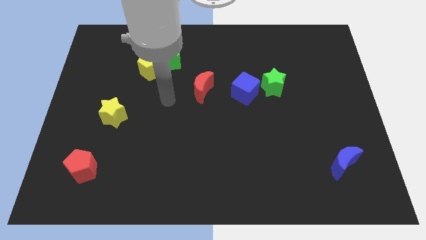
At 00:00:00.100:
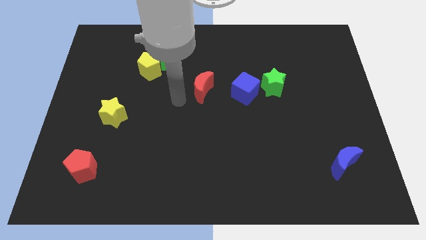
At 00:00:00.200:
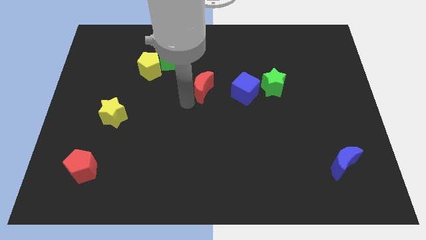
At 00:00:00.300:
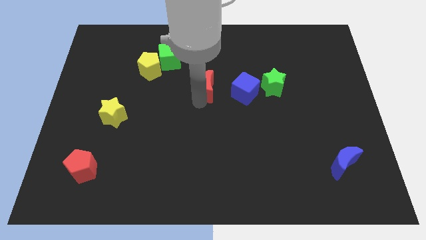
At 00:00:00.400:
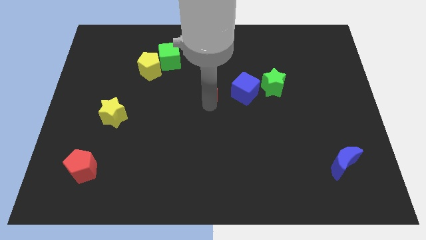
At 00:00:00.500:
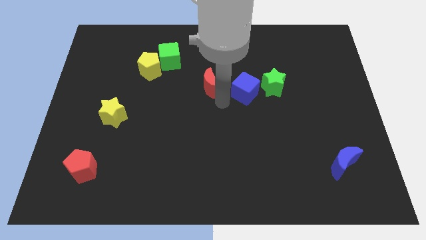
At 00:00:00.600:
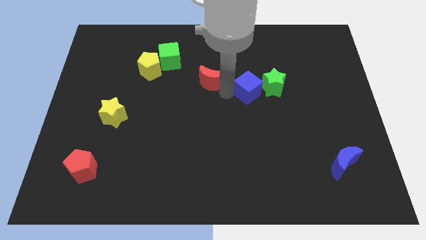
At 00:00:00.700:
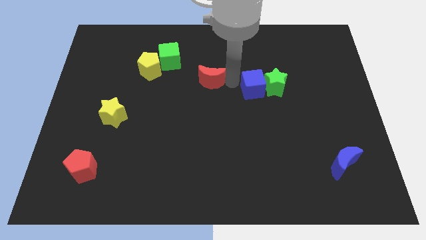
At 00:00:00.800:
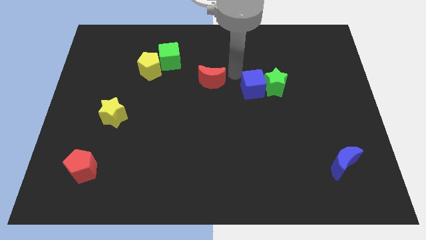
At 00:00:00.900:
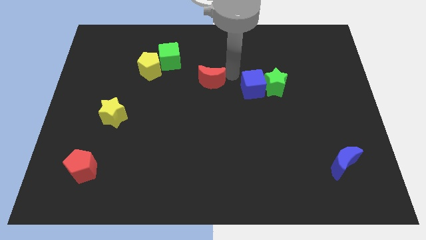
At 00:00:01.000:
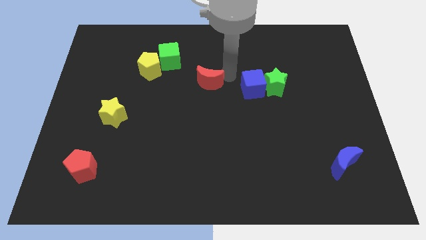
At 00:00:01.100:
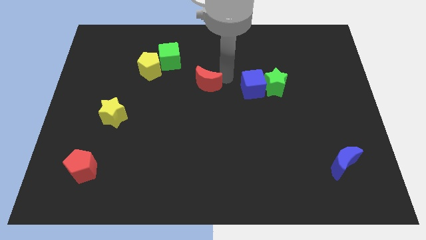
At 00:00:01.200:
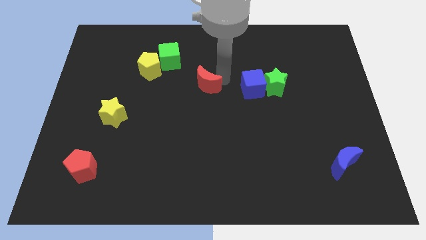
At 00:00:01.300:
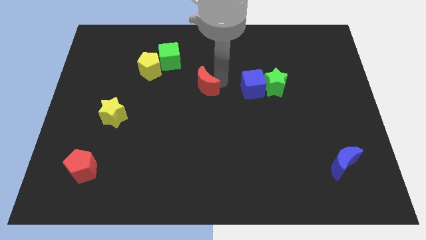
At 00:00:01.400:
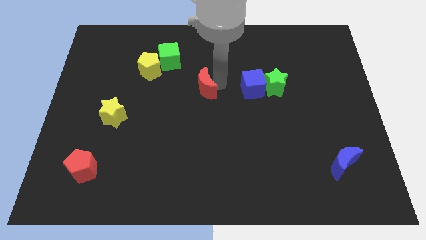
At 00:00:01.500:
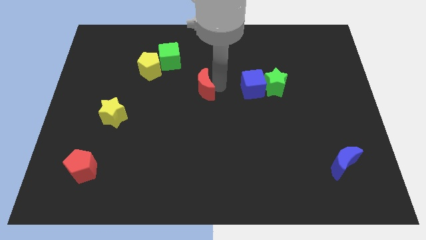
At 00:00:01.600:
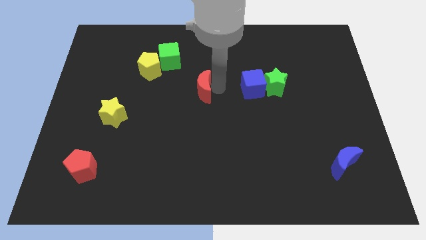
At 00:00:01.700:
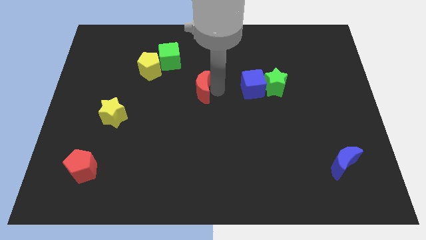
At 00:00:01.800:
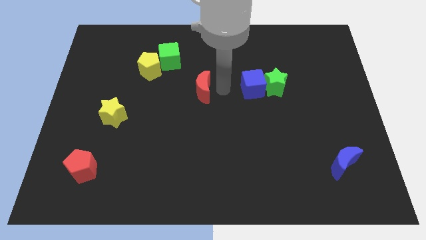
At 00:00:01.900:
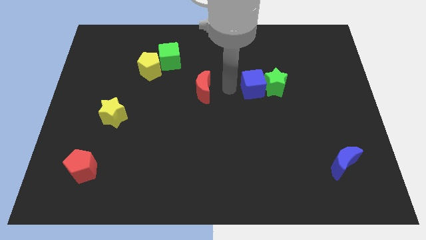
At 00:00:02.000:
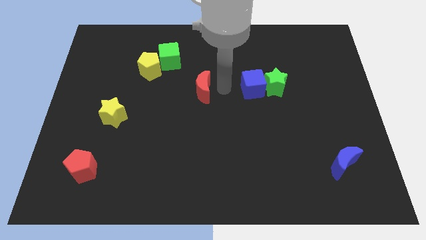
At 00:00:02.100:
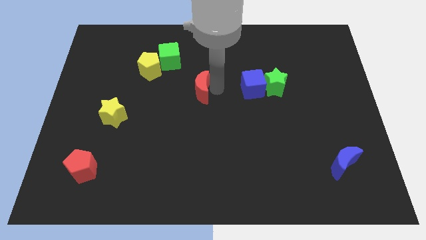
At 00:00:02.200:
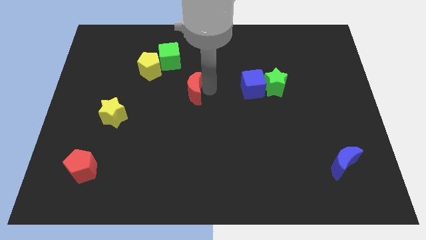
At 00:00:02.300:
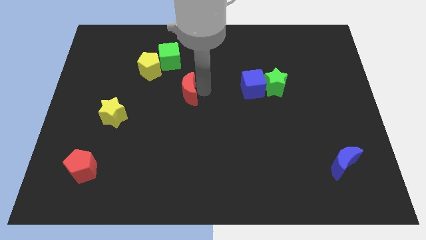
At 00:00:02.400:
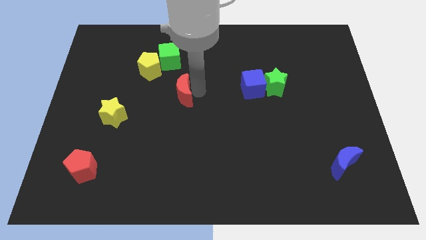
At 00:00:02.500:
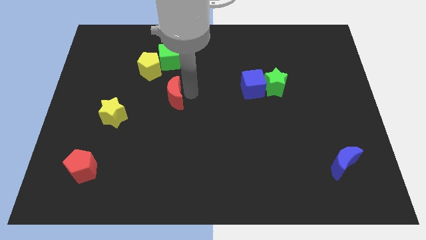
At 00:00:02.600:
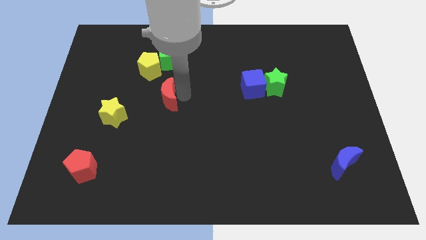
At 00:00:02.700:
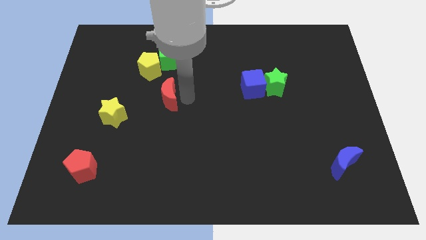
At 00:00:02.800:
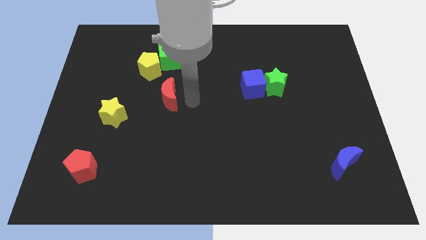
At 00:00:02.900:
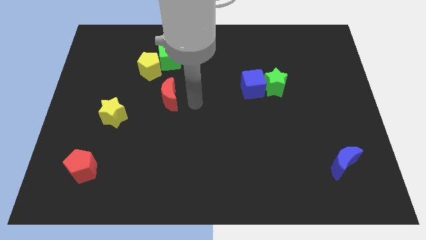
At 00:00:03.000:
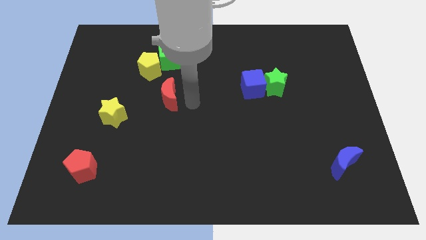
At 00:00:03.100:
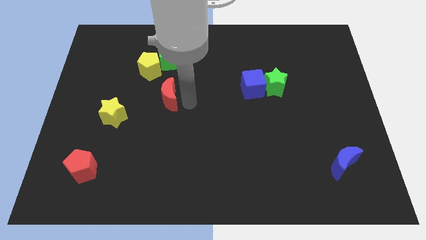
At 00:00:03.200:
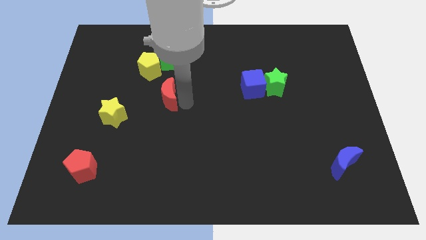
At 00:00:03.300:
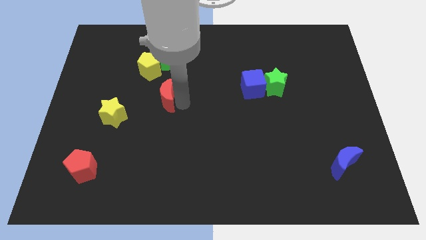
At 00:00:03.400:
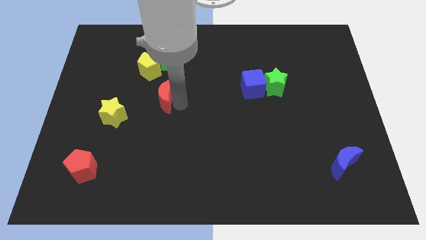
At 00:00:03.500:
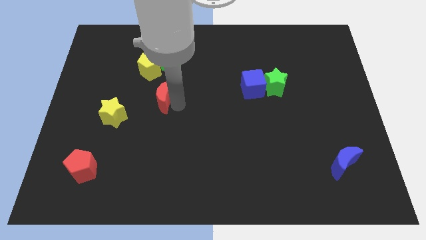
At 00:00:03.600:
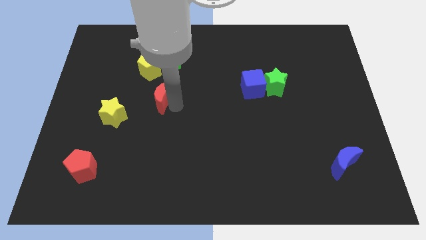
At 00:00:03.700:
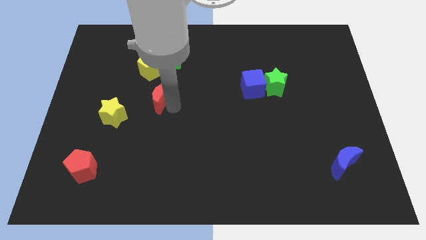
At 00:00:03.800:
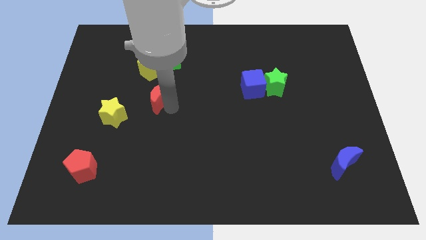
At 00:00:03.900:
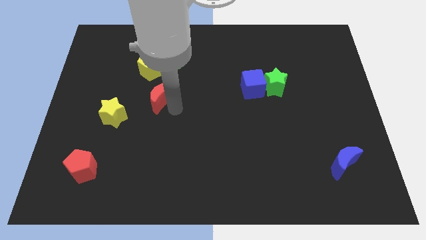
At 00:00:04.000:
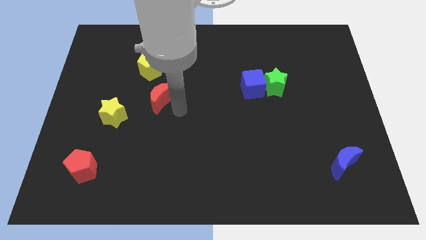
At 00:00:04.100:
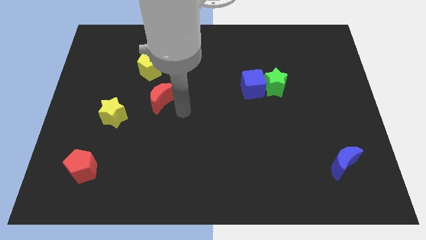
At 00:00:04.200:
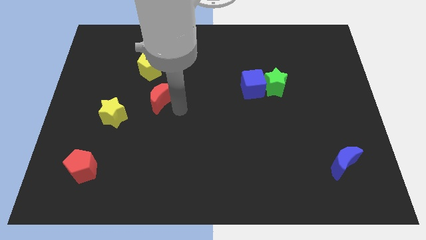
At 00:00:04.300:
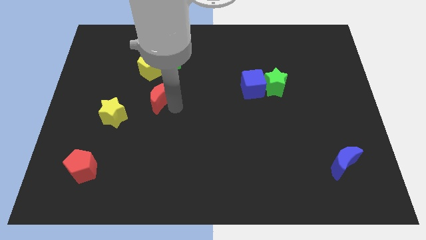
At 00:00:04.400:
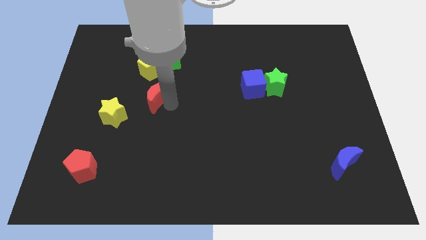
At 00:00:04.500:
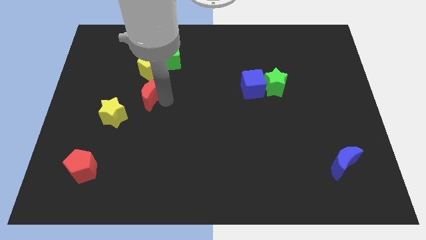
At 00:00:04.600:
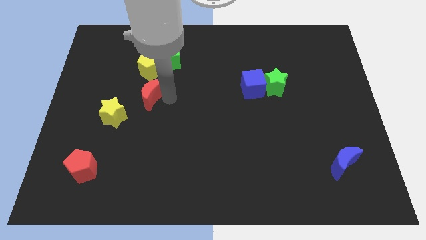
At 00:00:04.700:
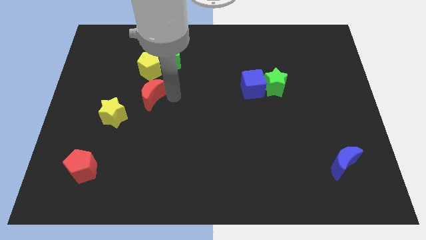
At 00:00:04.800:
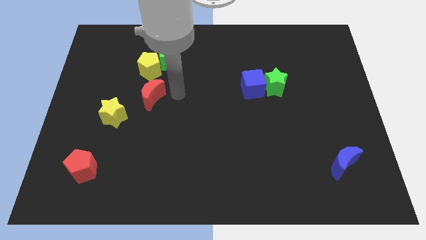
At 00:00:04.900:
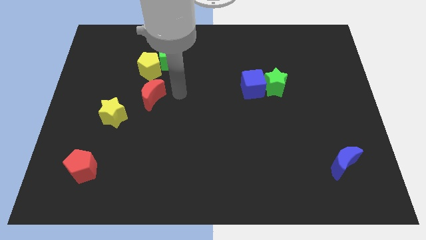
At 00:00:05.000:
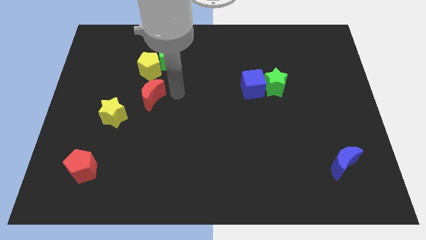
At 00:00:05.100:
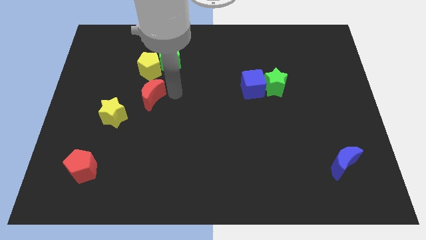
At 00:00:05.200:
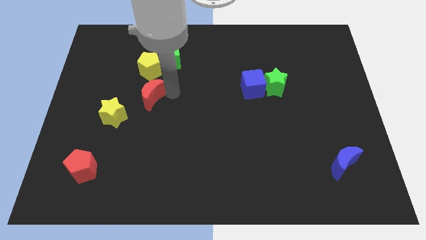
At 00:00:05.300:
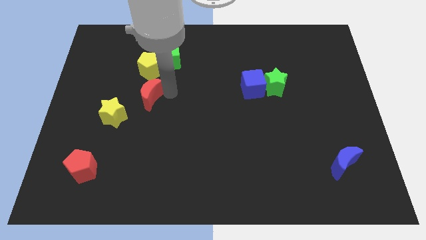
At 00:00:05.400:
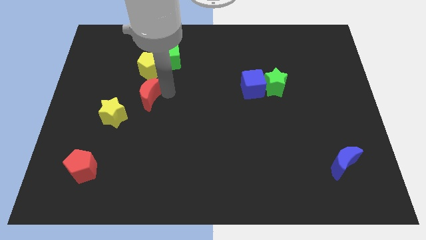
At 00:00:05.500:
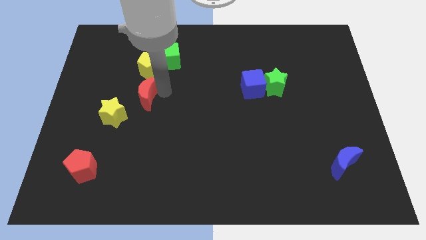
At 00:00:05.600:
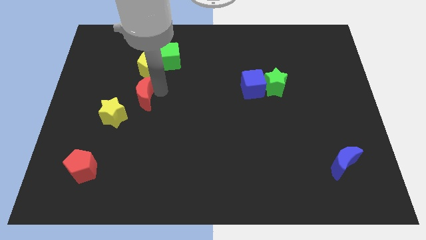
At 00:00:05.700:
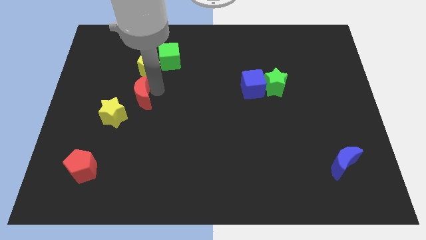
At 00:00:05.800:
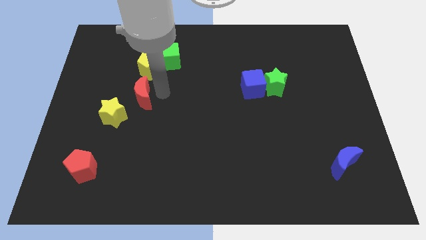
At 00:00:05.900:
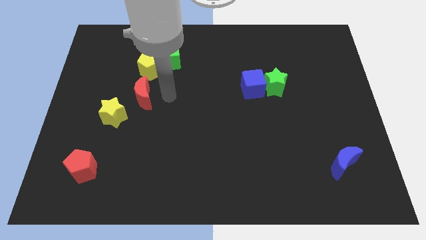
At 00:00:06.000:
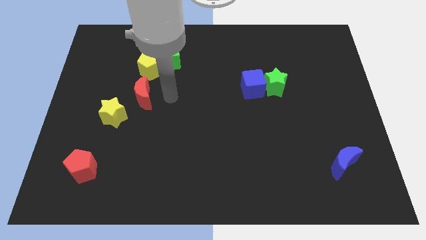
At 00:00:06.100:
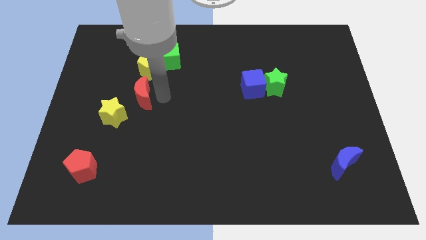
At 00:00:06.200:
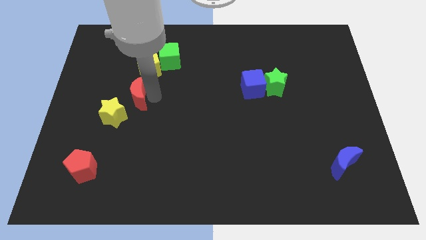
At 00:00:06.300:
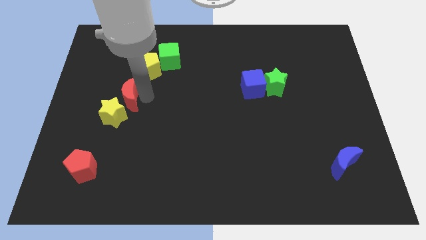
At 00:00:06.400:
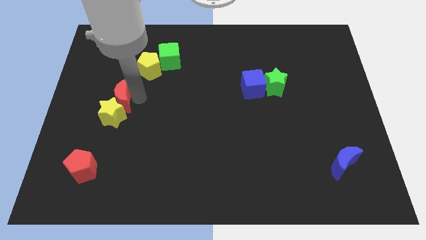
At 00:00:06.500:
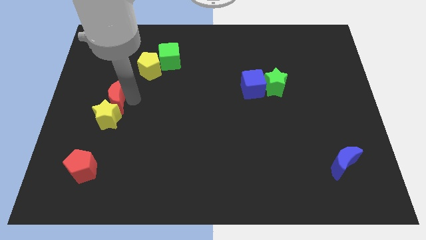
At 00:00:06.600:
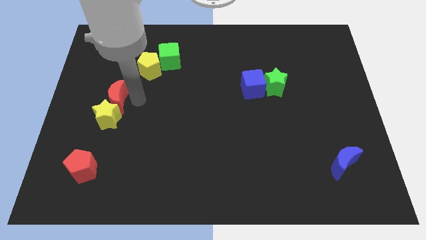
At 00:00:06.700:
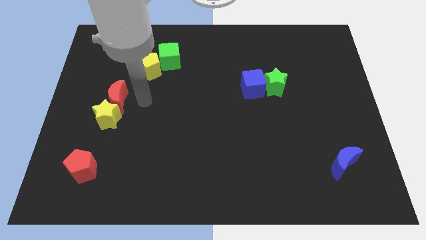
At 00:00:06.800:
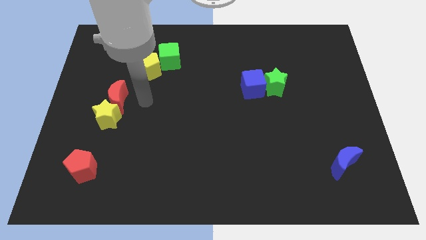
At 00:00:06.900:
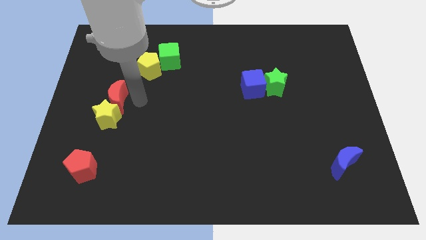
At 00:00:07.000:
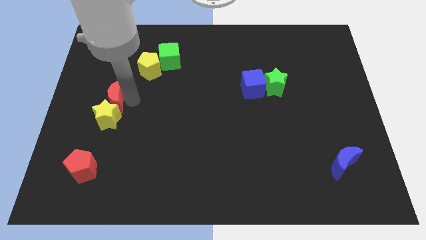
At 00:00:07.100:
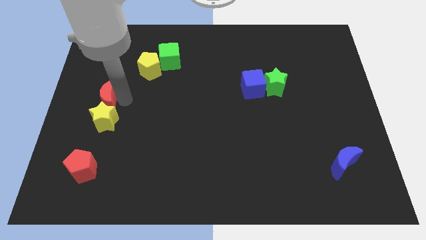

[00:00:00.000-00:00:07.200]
slide the red moon to the center left

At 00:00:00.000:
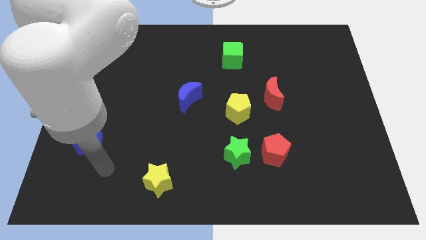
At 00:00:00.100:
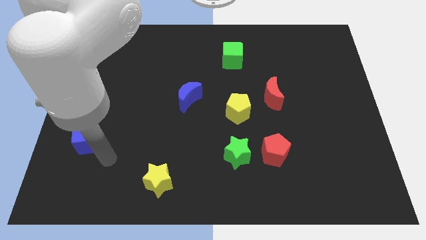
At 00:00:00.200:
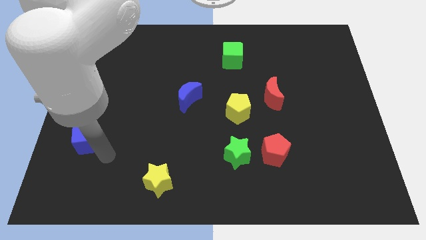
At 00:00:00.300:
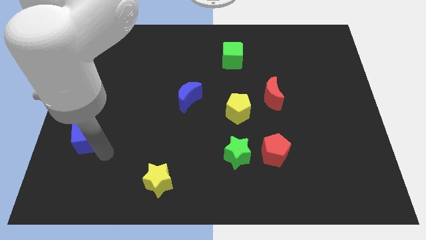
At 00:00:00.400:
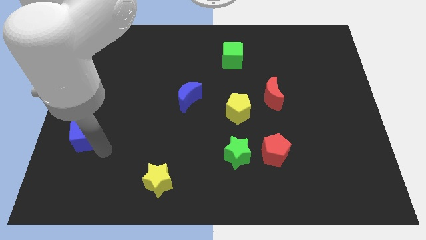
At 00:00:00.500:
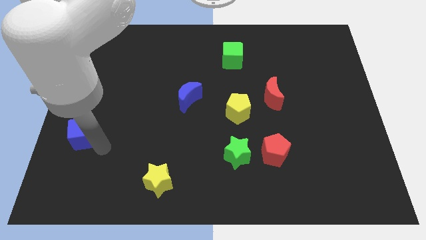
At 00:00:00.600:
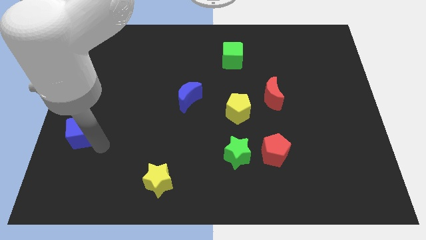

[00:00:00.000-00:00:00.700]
put the blue cube to the left side
